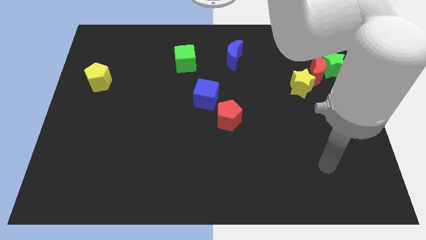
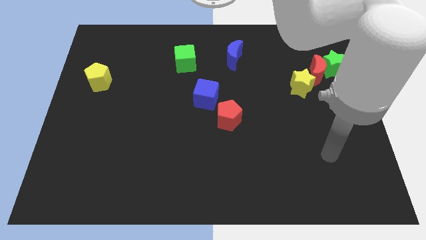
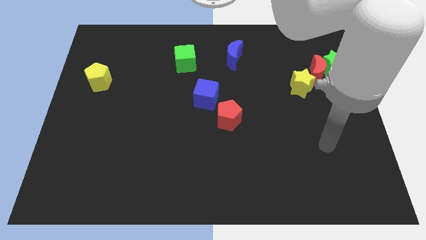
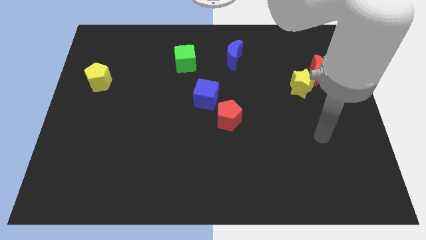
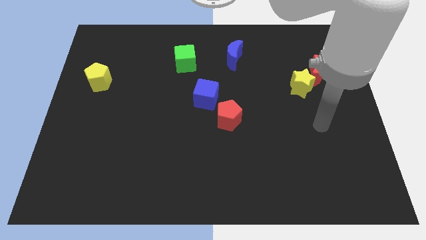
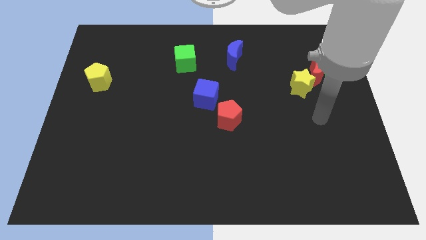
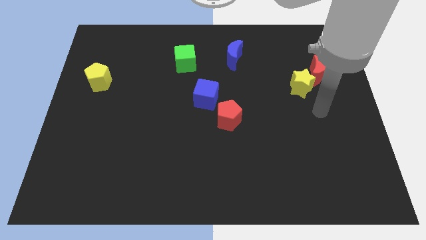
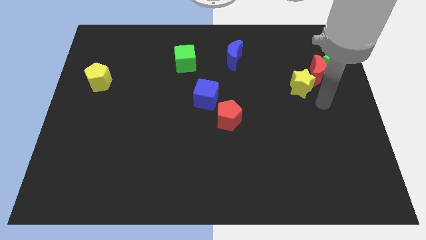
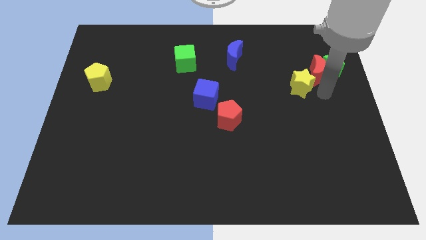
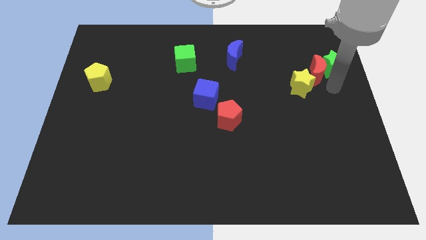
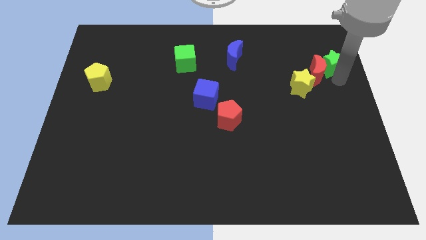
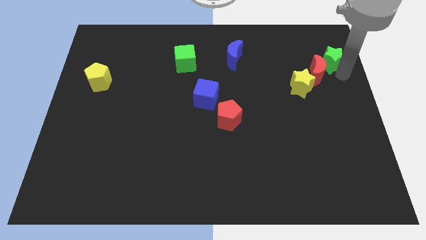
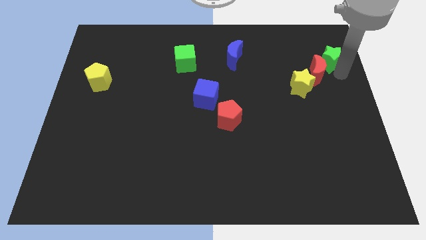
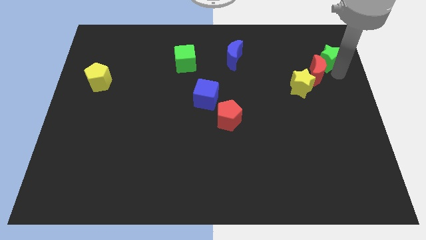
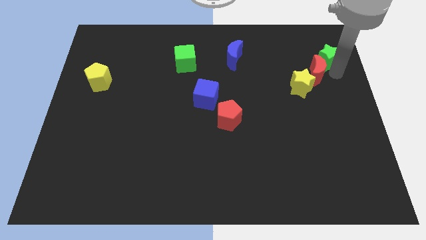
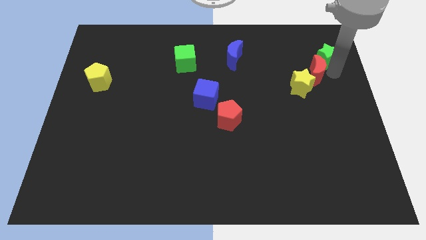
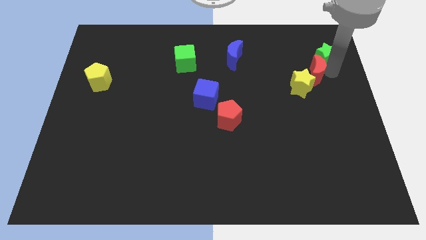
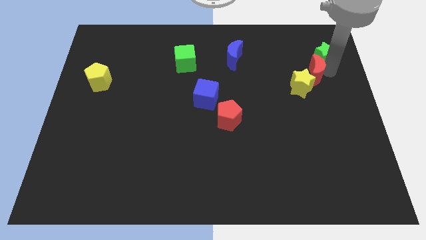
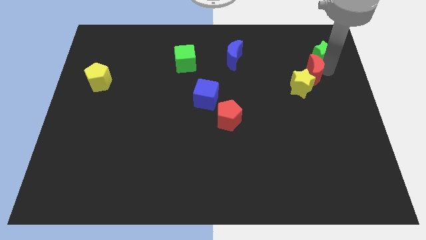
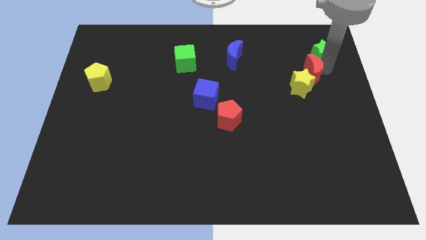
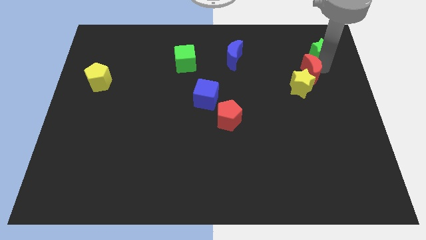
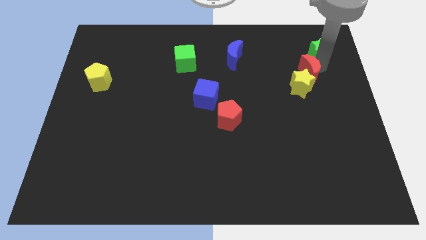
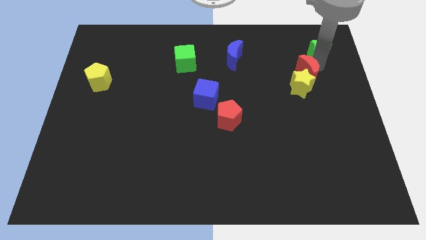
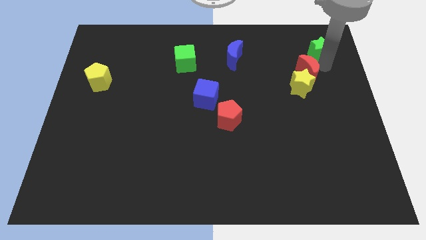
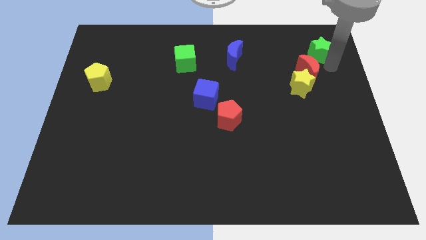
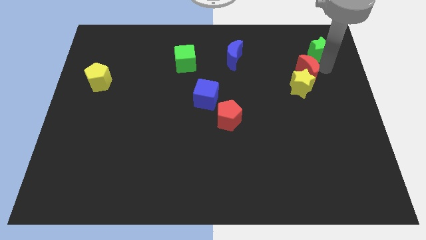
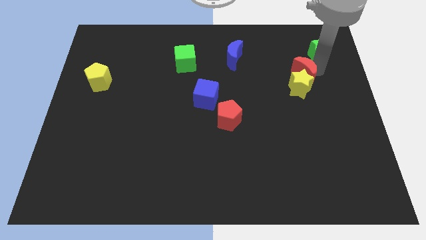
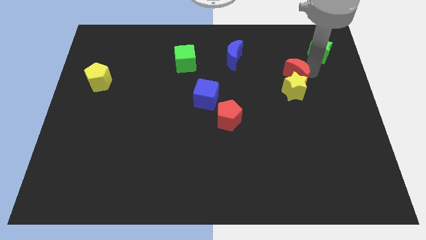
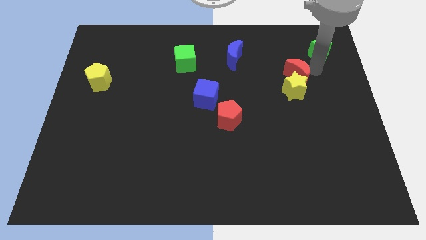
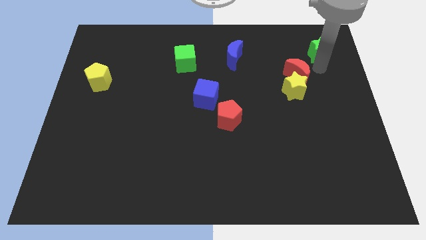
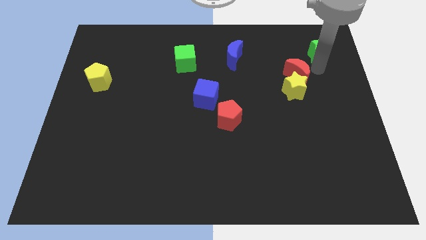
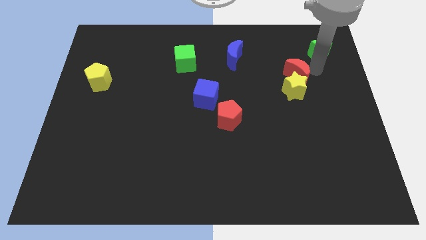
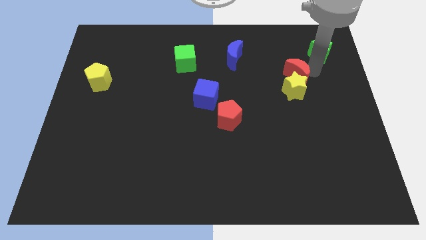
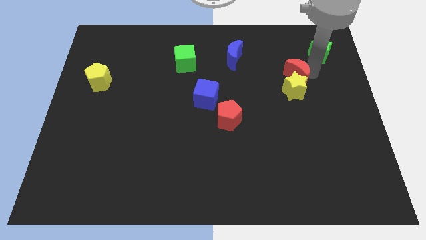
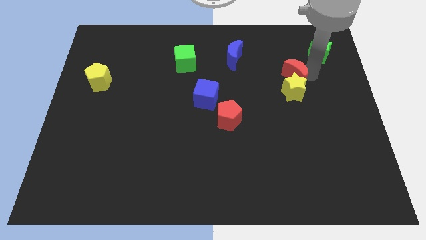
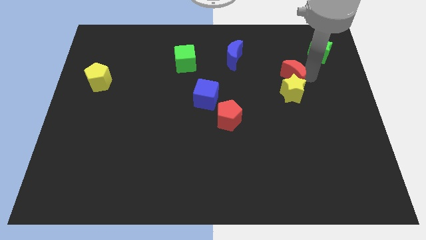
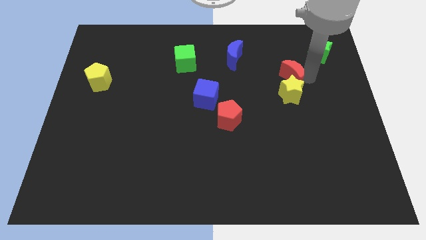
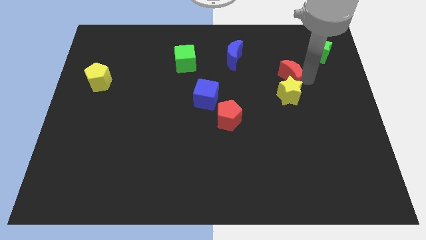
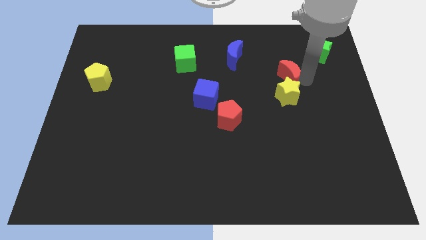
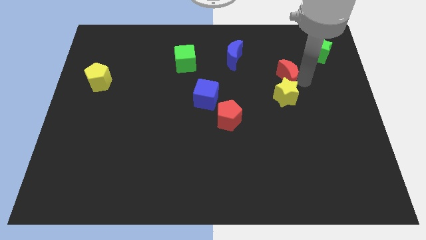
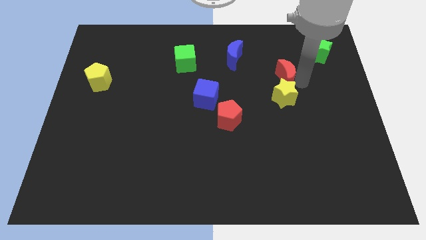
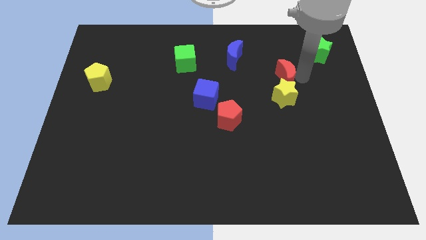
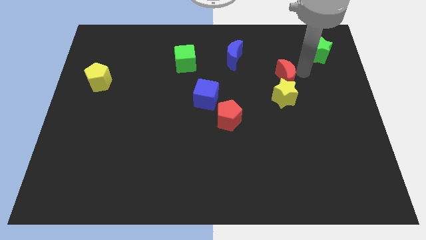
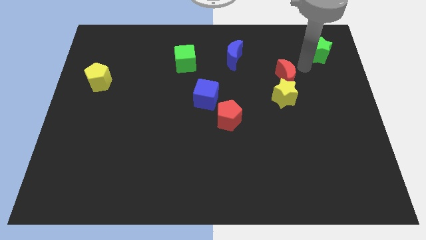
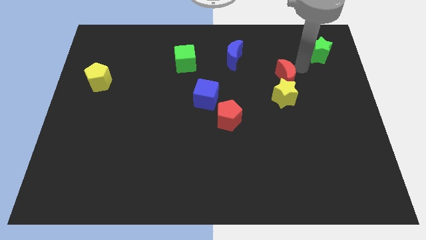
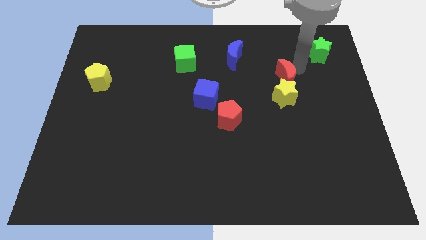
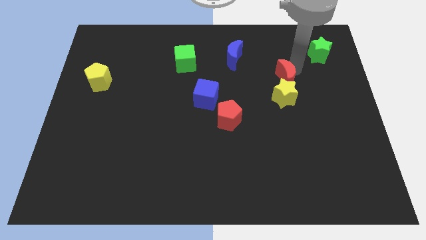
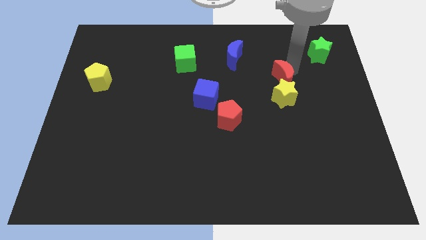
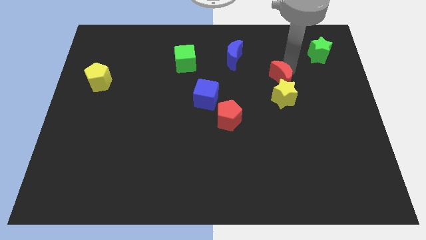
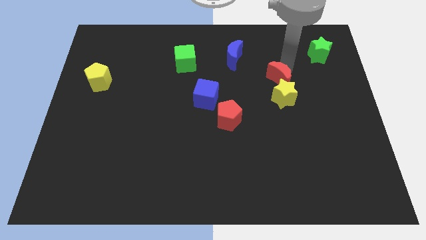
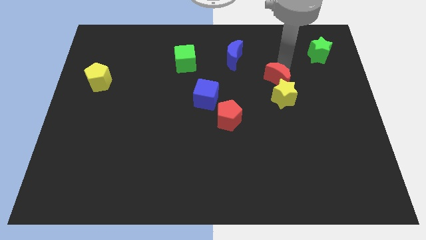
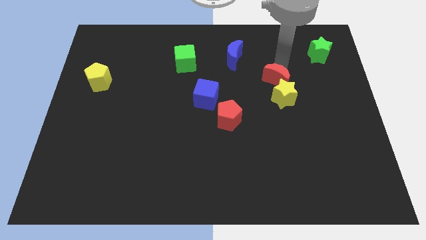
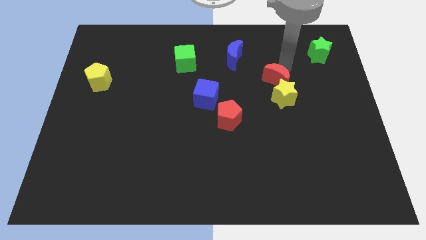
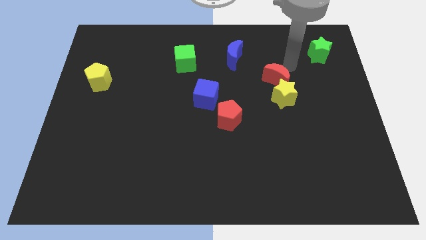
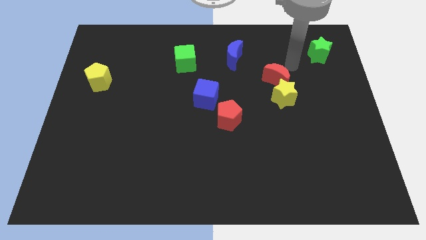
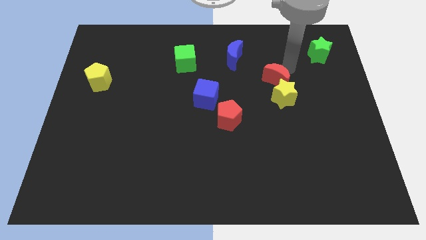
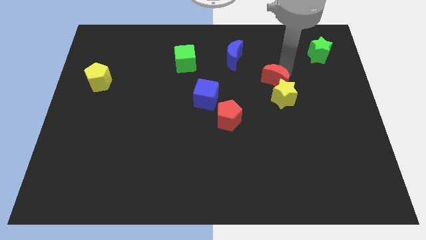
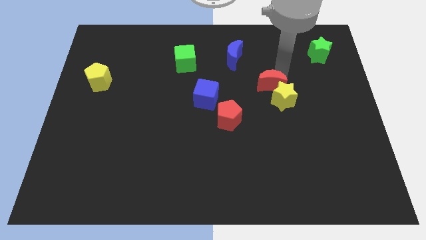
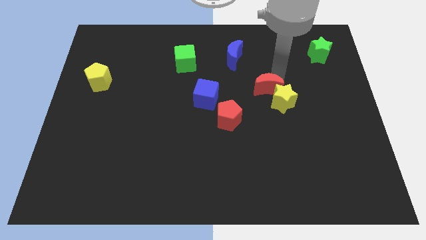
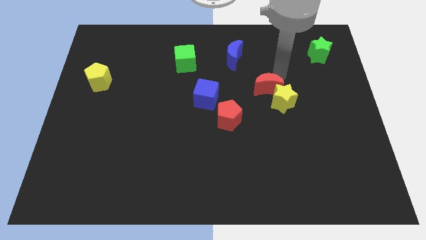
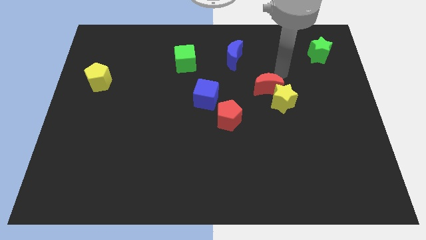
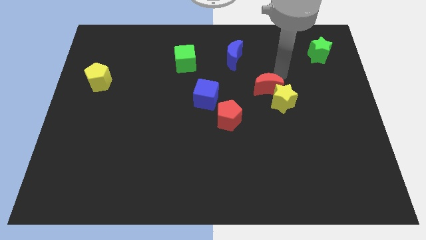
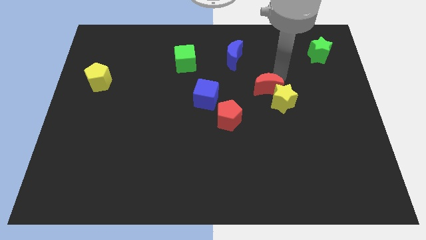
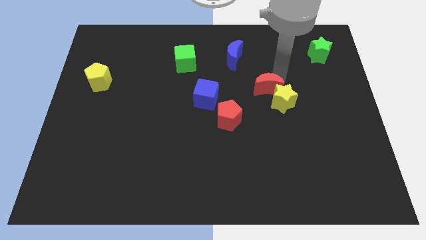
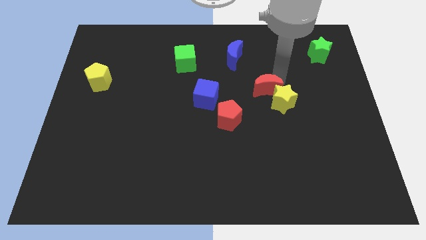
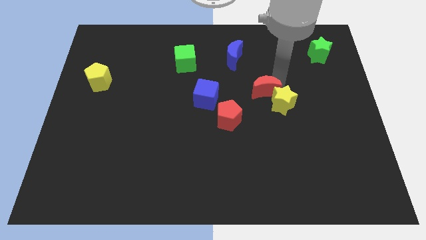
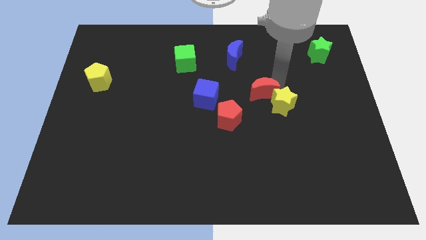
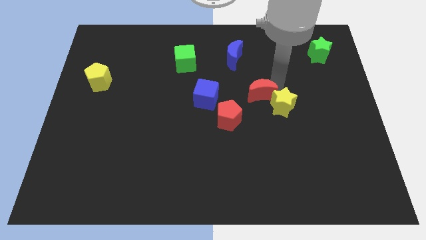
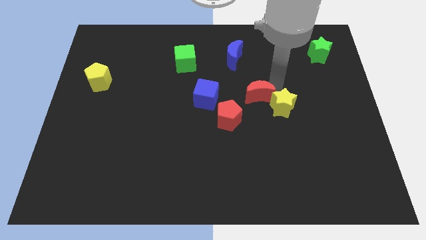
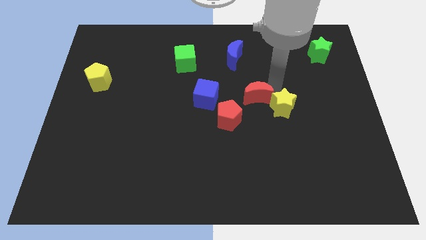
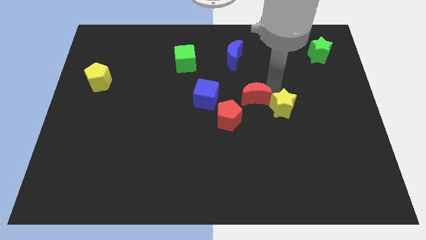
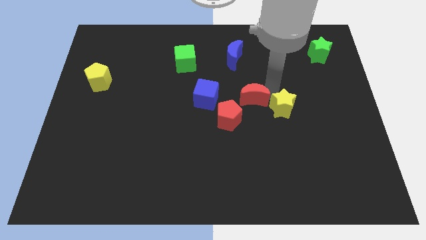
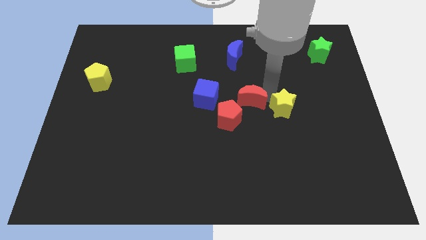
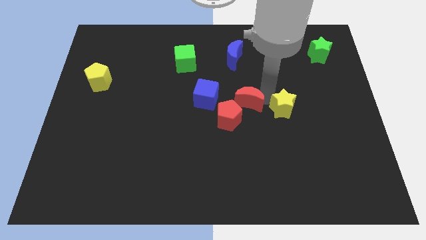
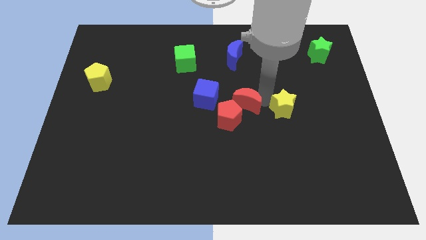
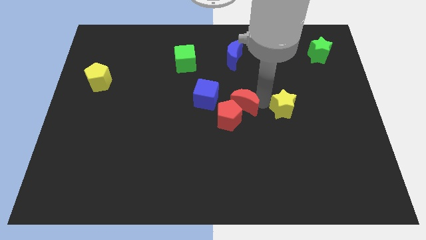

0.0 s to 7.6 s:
push the red moon close to the red pentagon
